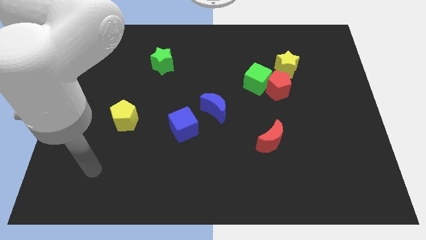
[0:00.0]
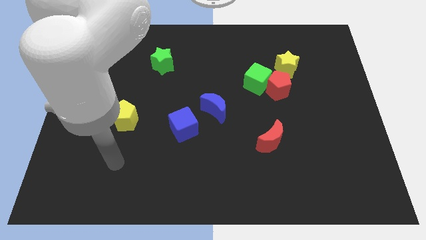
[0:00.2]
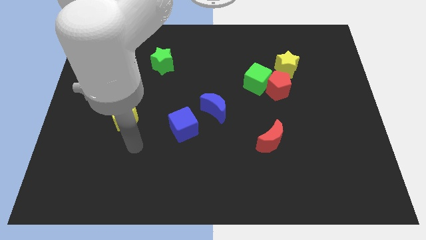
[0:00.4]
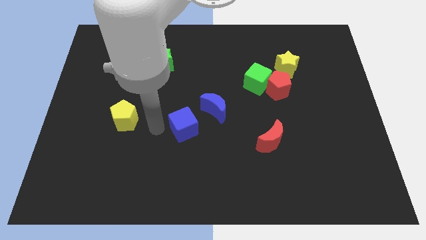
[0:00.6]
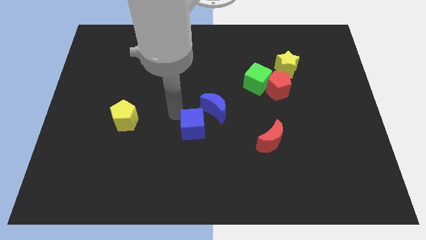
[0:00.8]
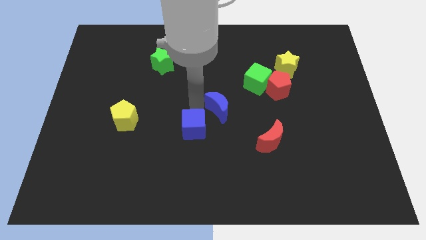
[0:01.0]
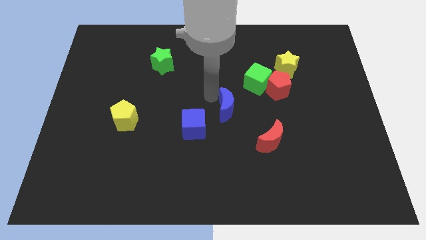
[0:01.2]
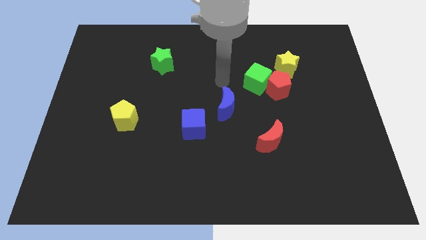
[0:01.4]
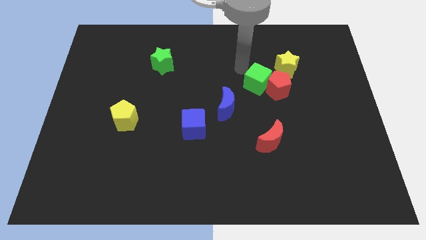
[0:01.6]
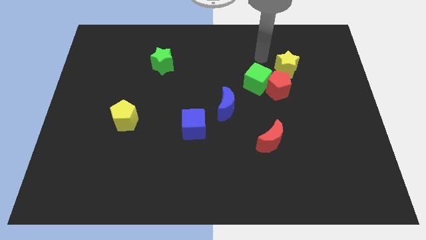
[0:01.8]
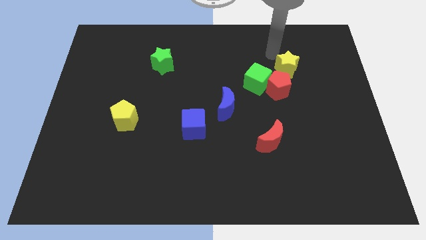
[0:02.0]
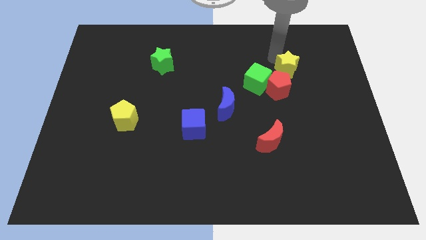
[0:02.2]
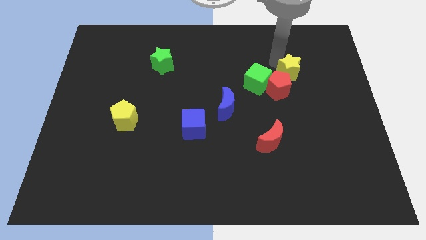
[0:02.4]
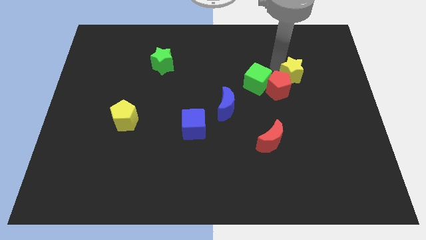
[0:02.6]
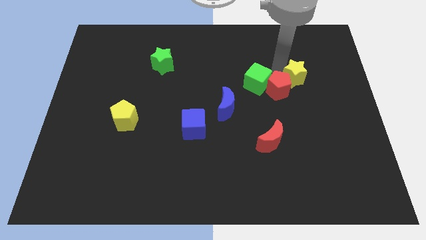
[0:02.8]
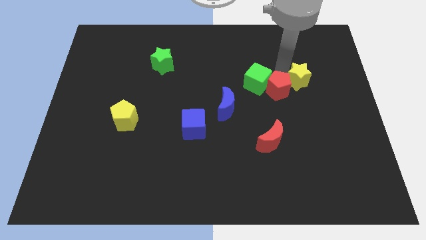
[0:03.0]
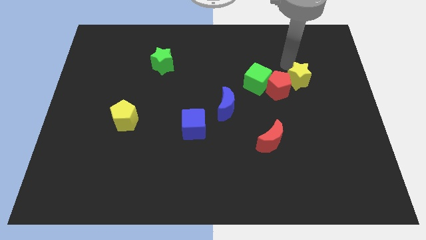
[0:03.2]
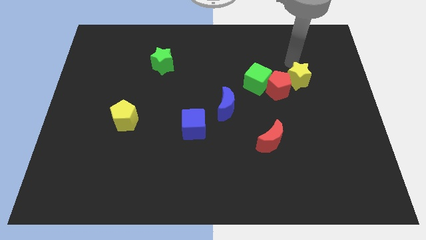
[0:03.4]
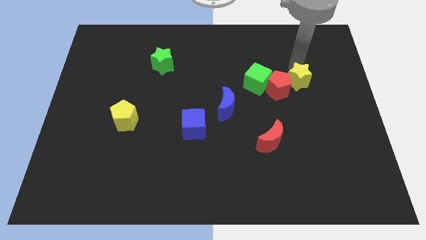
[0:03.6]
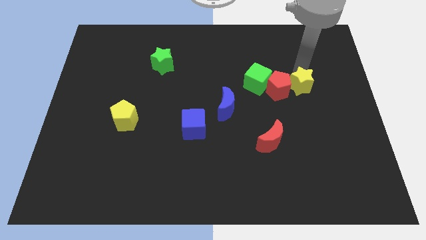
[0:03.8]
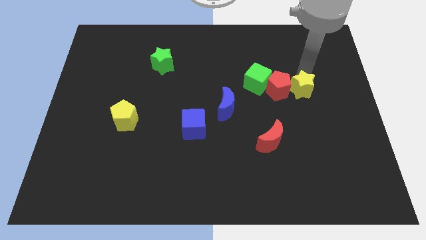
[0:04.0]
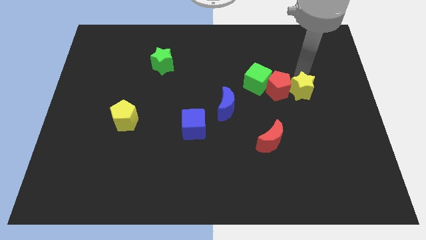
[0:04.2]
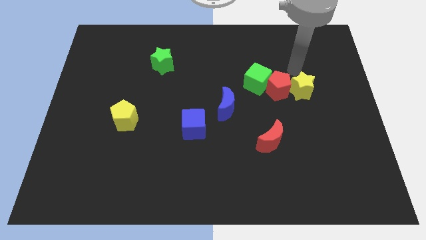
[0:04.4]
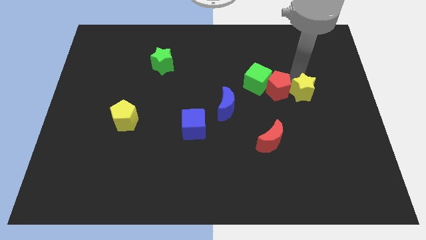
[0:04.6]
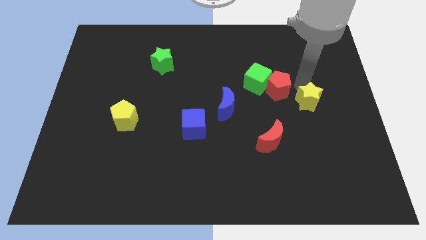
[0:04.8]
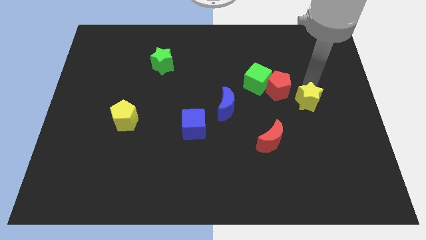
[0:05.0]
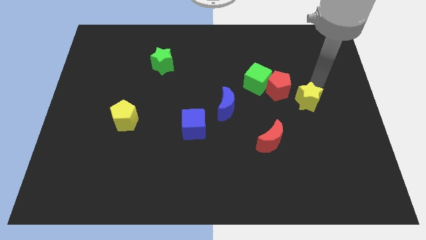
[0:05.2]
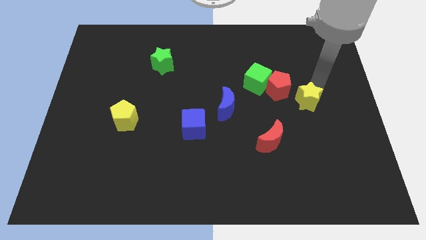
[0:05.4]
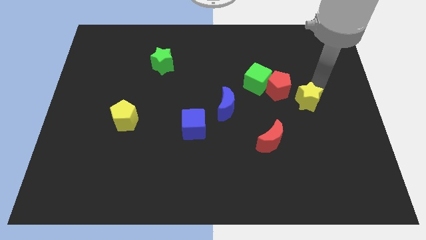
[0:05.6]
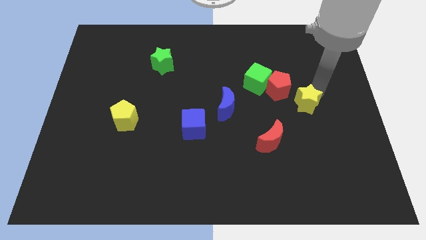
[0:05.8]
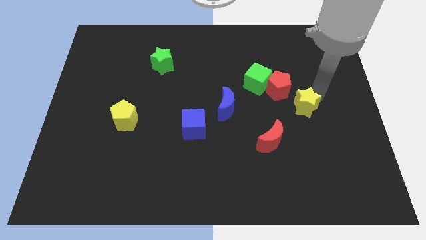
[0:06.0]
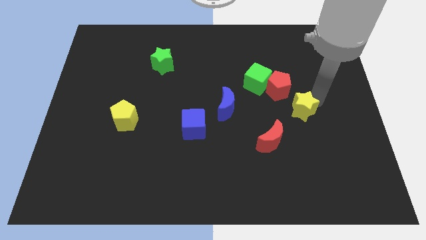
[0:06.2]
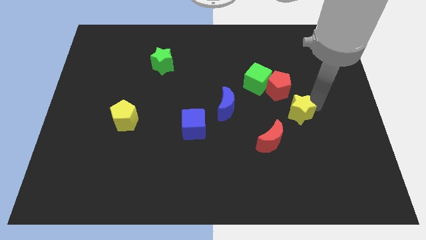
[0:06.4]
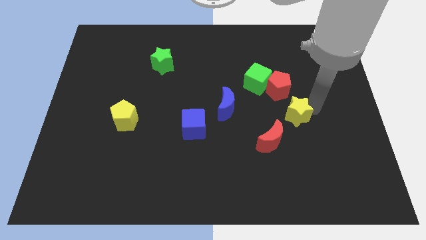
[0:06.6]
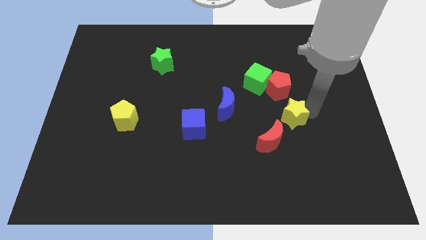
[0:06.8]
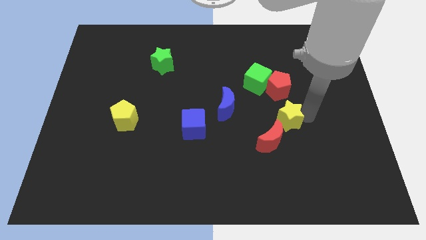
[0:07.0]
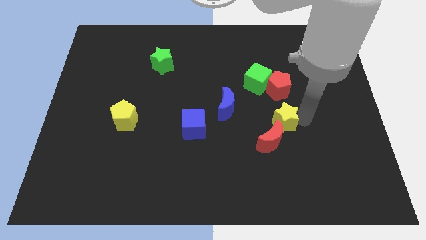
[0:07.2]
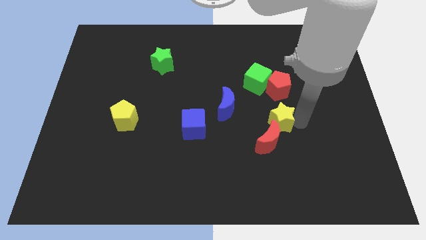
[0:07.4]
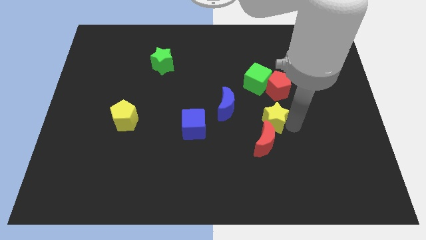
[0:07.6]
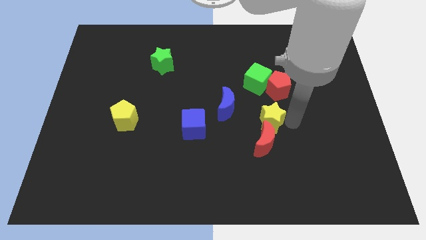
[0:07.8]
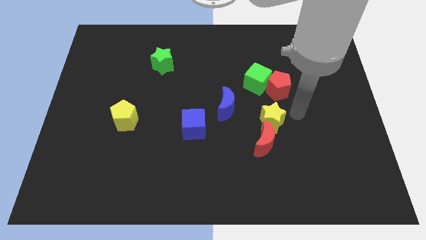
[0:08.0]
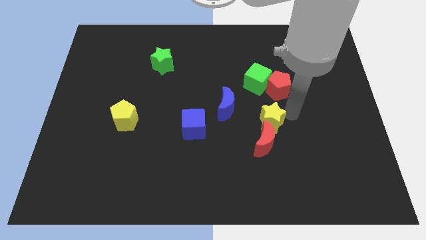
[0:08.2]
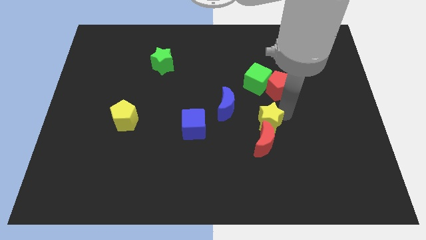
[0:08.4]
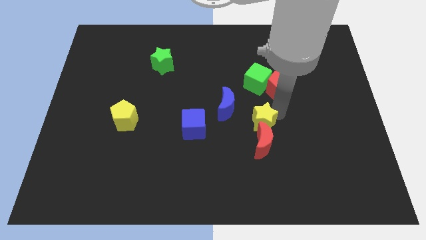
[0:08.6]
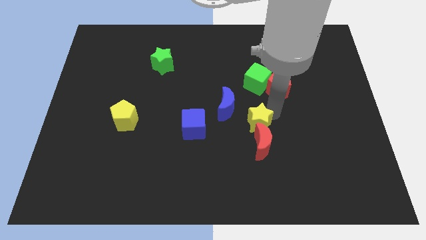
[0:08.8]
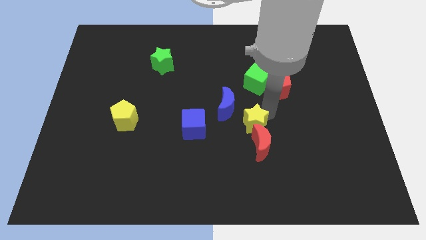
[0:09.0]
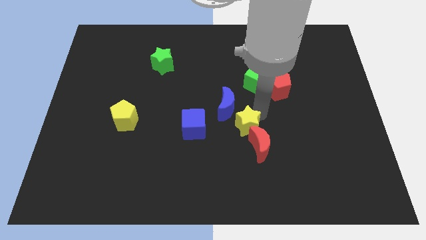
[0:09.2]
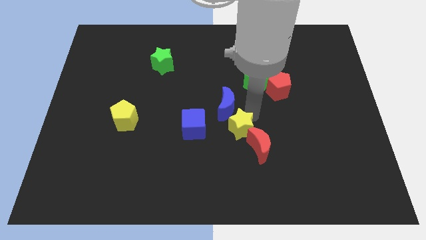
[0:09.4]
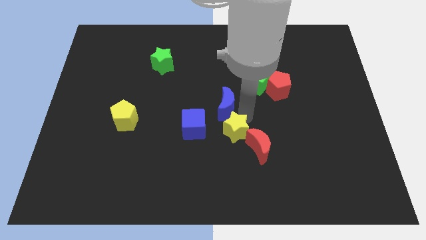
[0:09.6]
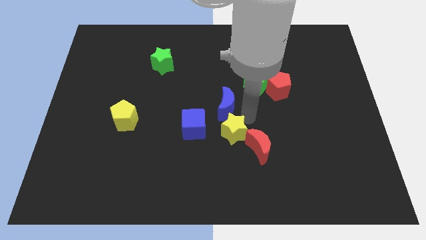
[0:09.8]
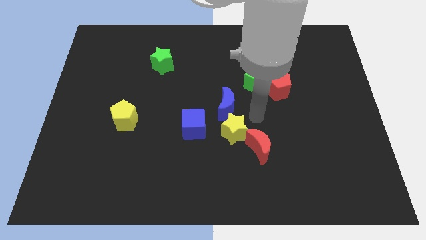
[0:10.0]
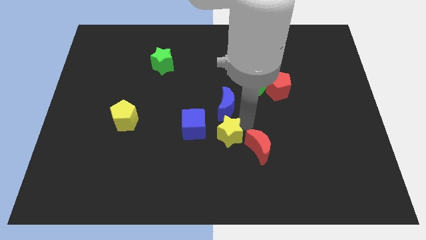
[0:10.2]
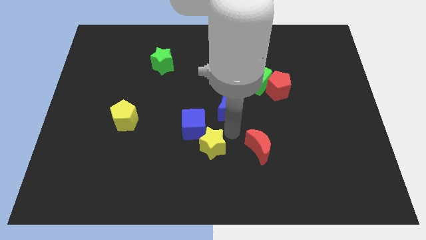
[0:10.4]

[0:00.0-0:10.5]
push the yellow star to the bottom of the blue cube

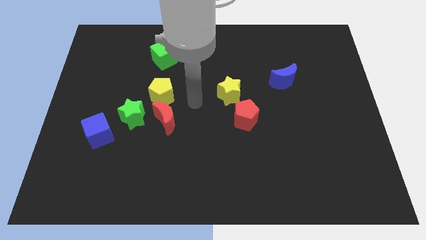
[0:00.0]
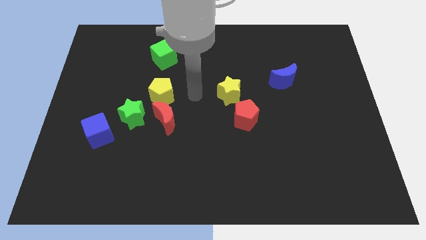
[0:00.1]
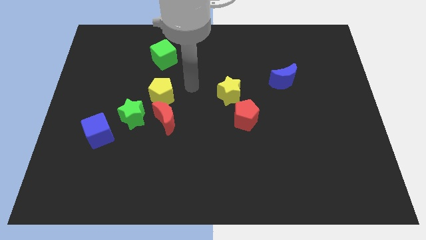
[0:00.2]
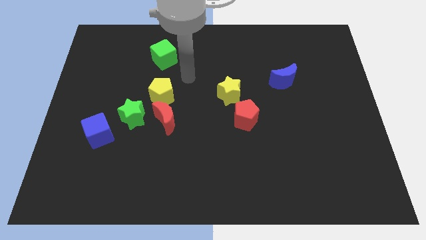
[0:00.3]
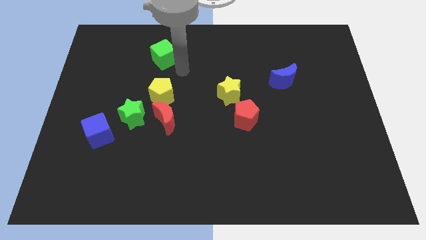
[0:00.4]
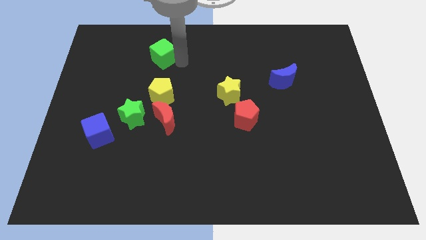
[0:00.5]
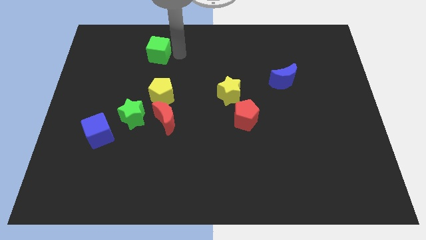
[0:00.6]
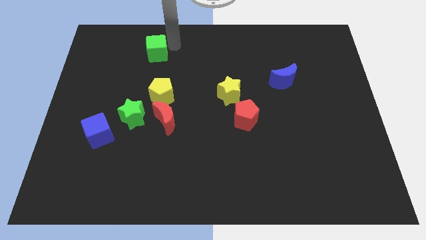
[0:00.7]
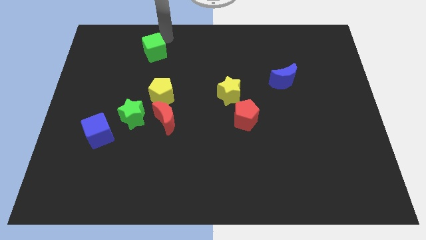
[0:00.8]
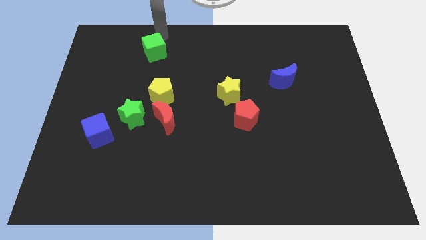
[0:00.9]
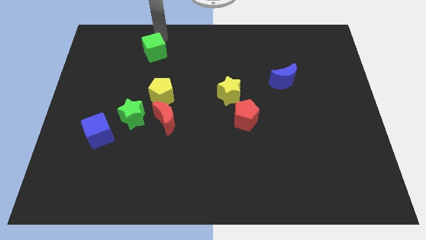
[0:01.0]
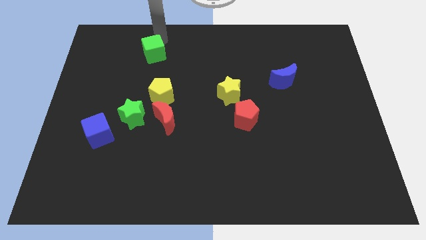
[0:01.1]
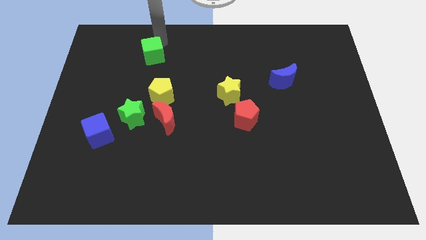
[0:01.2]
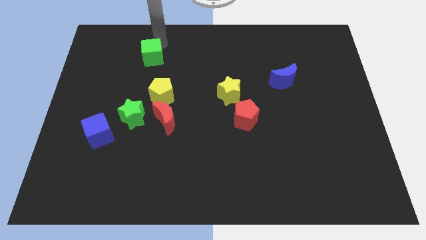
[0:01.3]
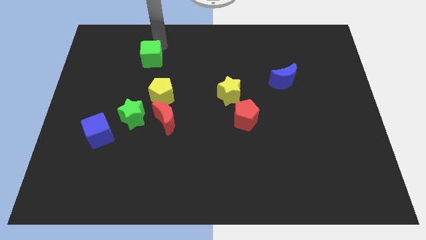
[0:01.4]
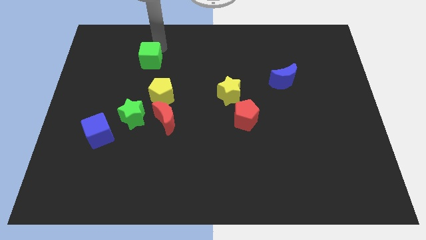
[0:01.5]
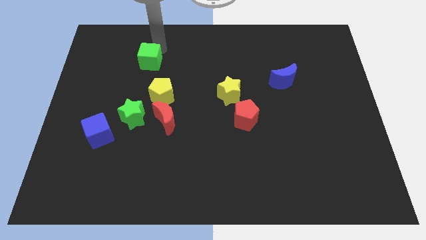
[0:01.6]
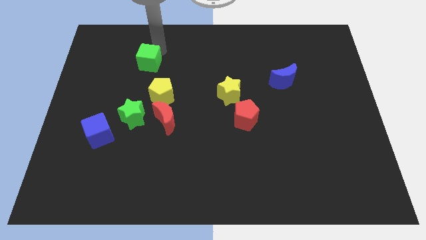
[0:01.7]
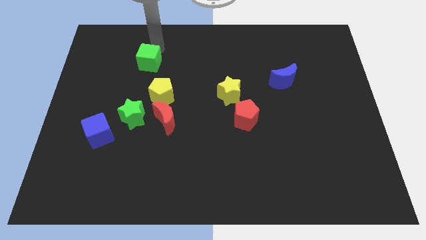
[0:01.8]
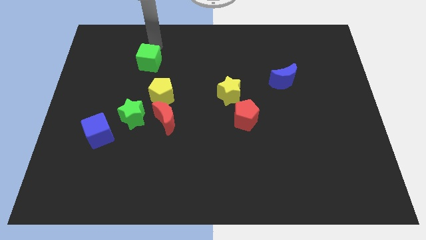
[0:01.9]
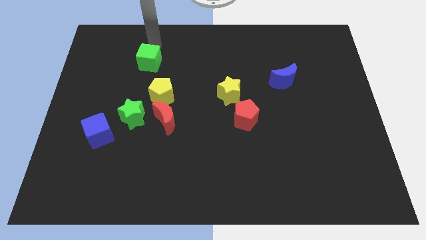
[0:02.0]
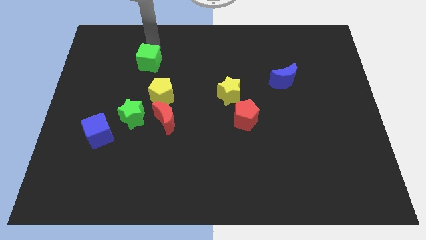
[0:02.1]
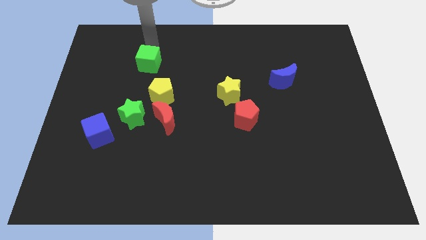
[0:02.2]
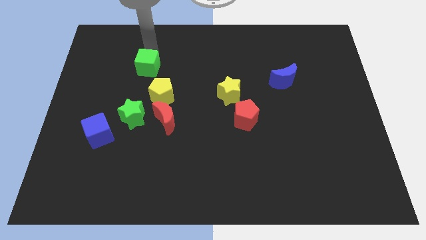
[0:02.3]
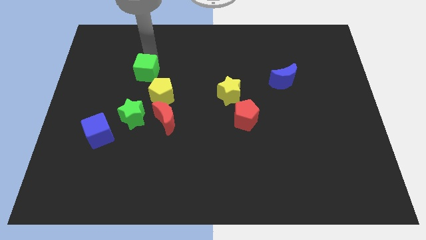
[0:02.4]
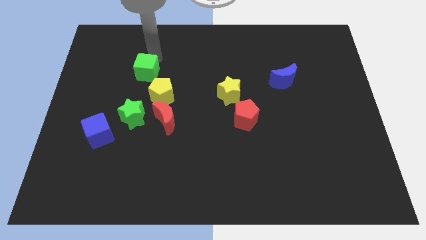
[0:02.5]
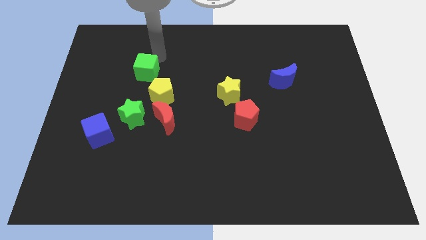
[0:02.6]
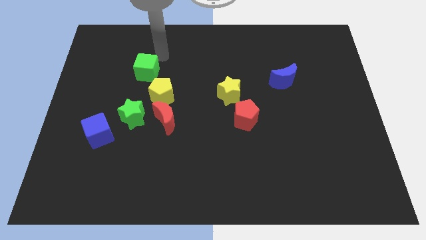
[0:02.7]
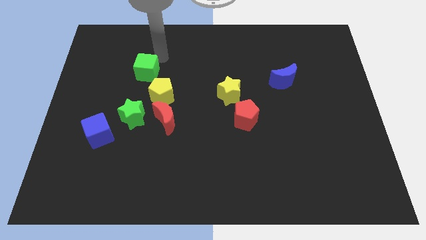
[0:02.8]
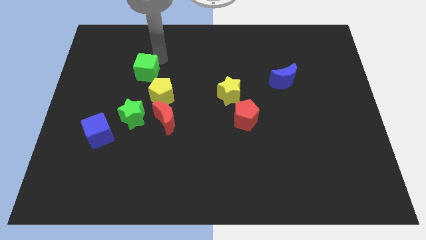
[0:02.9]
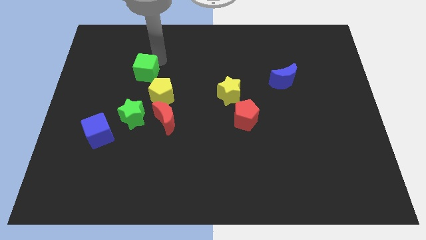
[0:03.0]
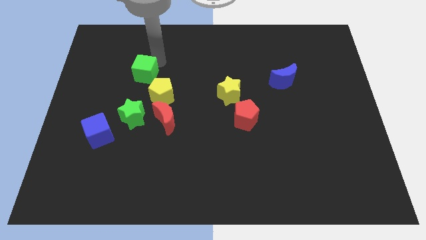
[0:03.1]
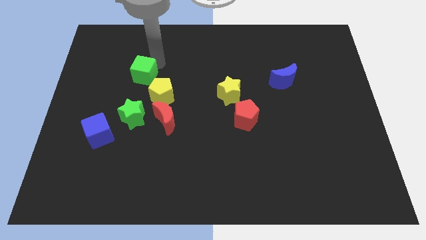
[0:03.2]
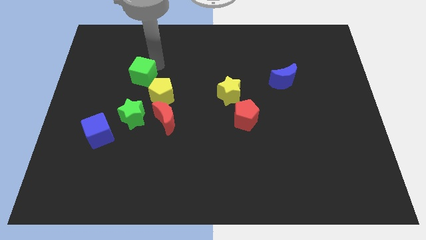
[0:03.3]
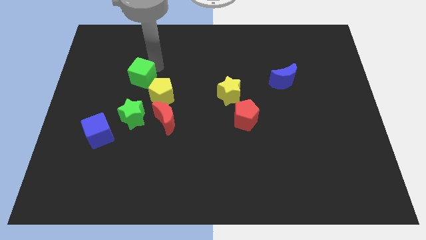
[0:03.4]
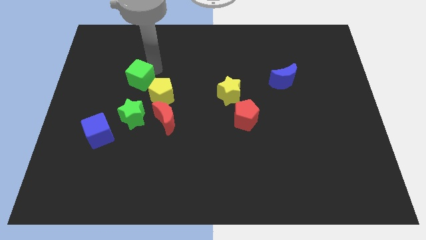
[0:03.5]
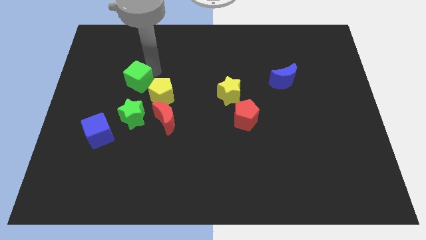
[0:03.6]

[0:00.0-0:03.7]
slide the green cube to the left side of the yellow pentagon
